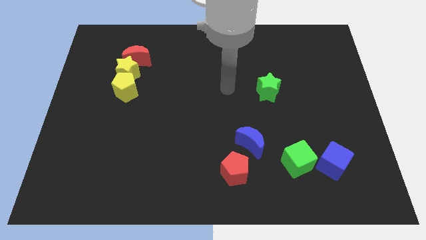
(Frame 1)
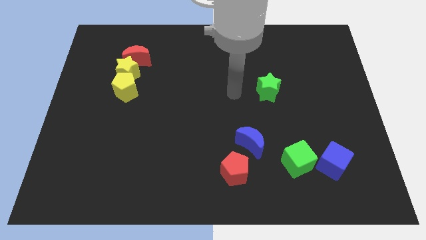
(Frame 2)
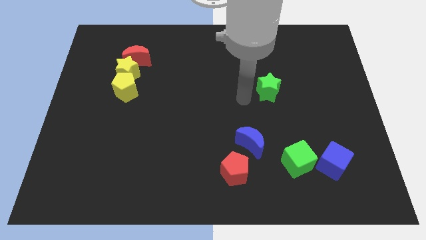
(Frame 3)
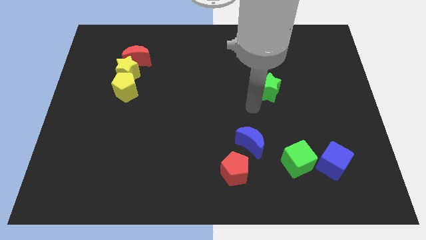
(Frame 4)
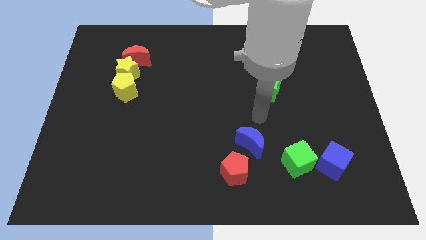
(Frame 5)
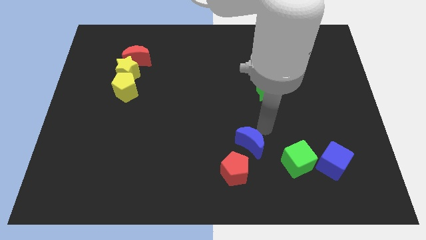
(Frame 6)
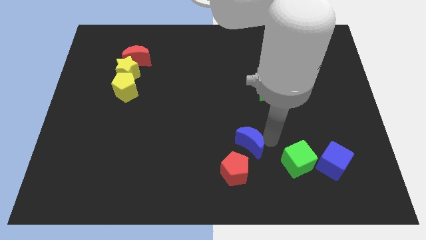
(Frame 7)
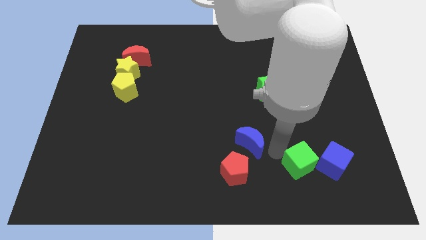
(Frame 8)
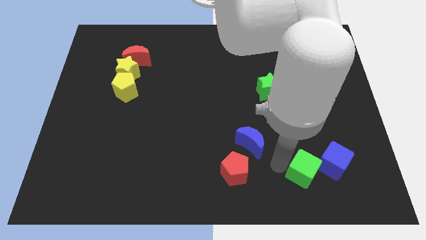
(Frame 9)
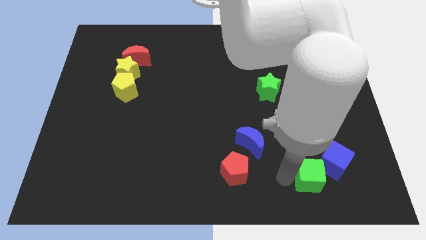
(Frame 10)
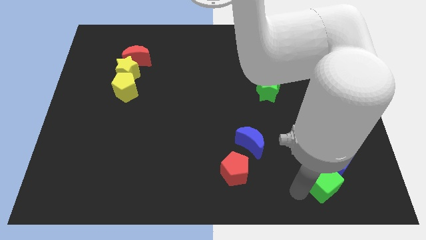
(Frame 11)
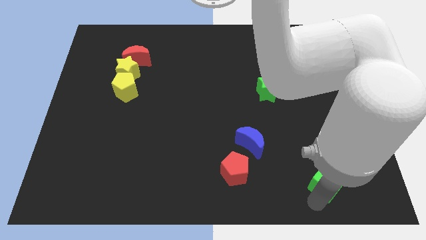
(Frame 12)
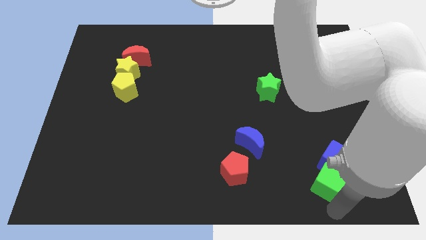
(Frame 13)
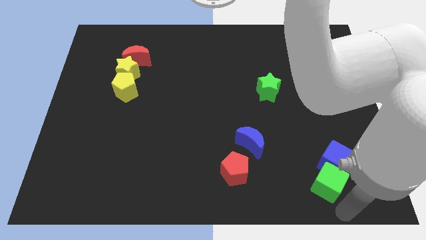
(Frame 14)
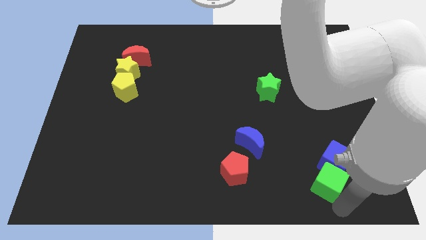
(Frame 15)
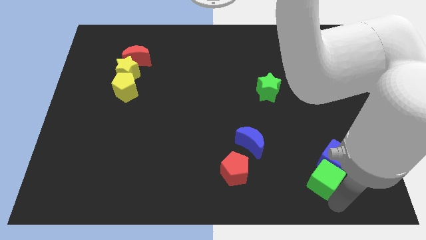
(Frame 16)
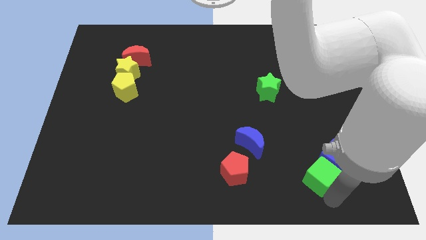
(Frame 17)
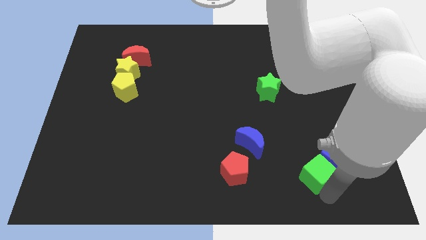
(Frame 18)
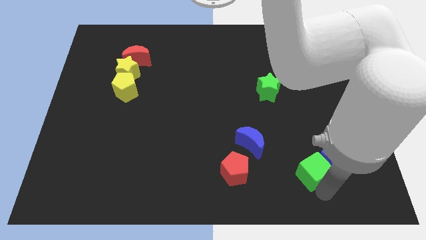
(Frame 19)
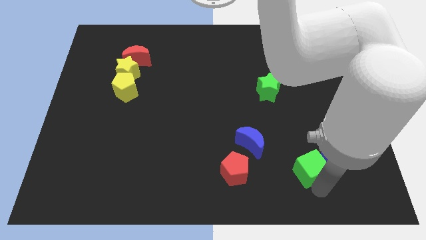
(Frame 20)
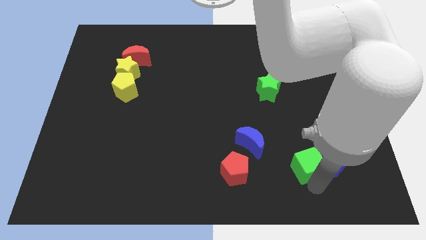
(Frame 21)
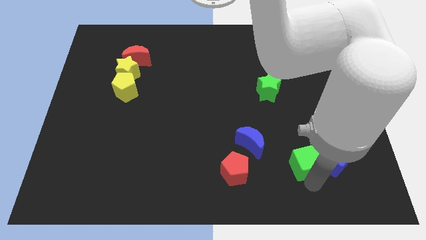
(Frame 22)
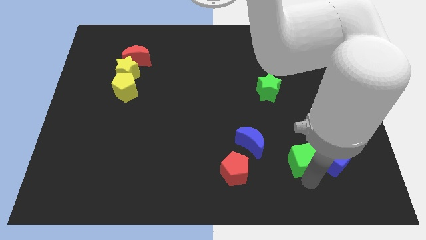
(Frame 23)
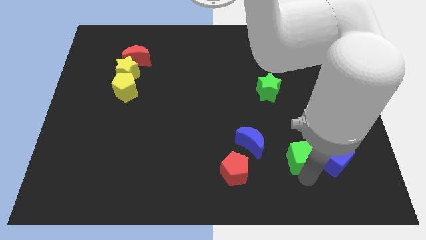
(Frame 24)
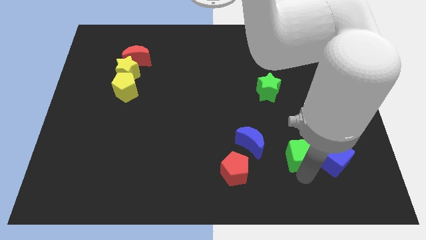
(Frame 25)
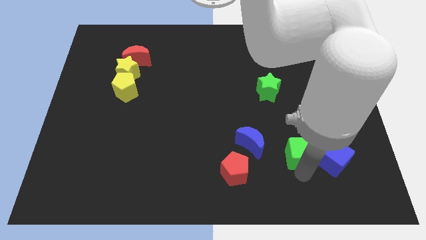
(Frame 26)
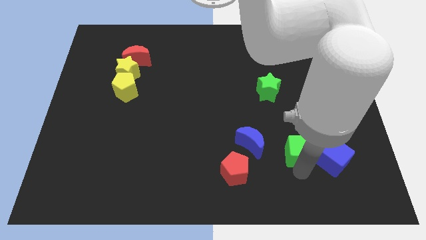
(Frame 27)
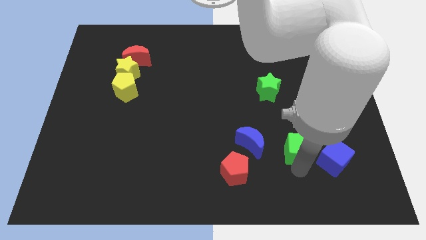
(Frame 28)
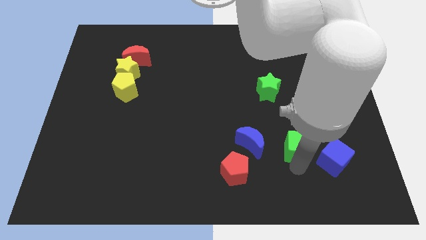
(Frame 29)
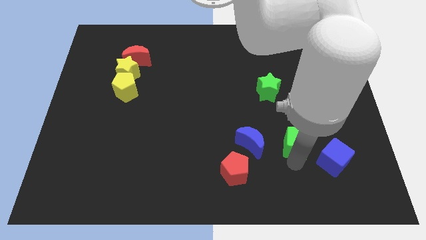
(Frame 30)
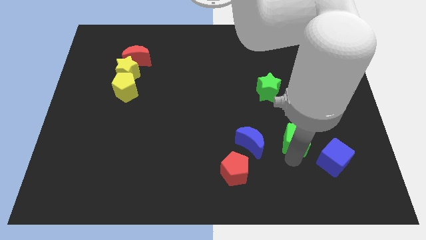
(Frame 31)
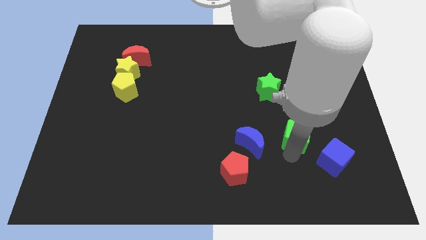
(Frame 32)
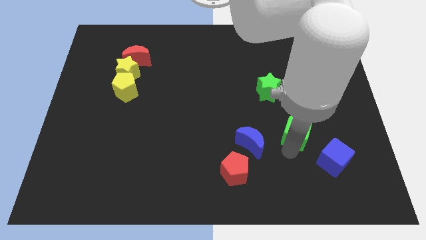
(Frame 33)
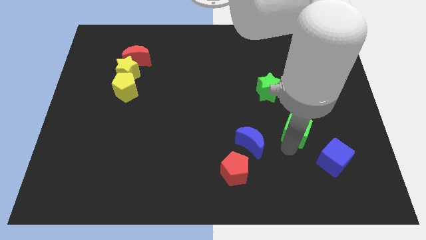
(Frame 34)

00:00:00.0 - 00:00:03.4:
slightly slide the green cube up

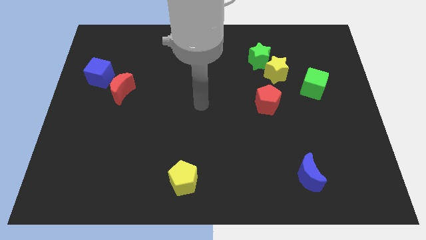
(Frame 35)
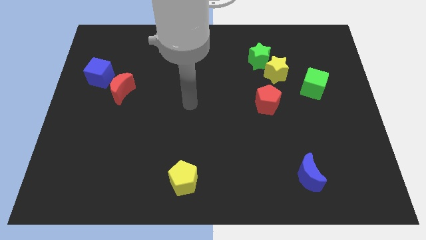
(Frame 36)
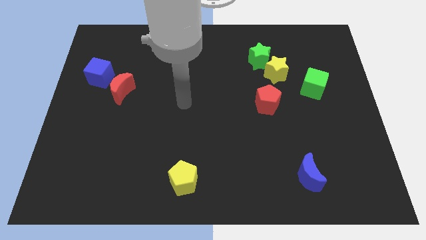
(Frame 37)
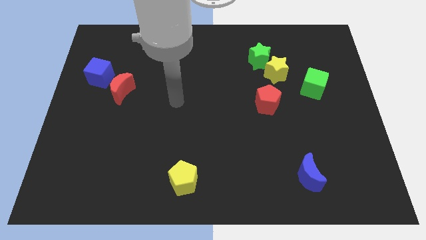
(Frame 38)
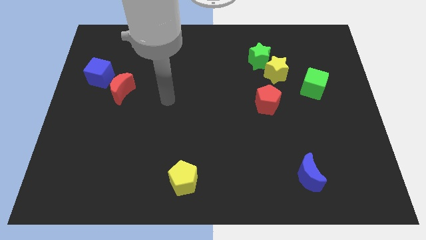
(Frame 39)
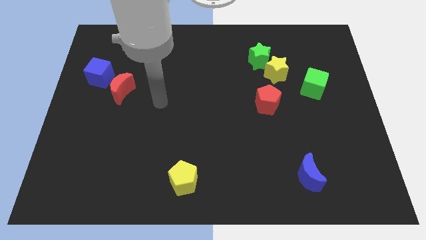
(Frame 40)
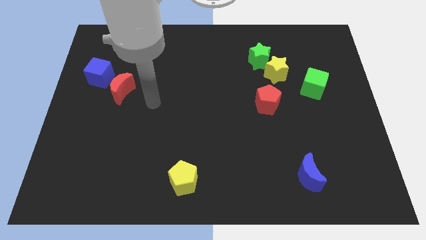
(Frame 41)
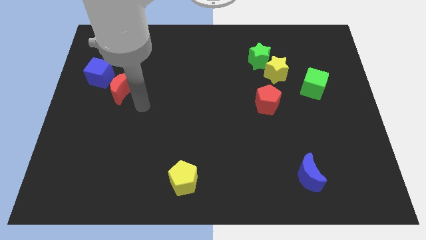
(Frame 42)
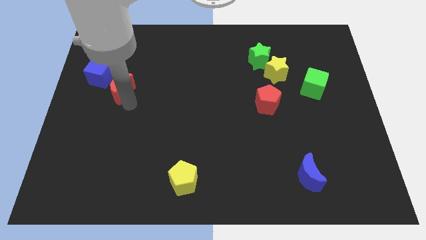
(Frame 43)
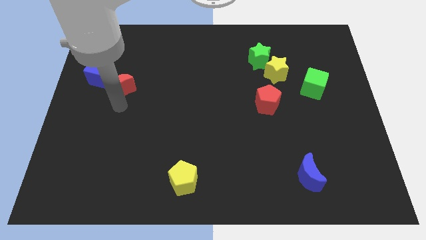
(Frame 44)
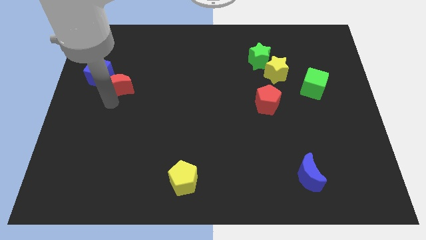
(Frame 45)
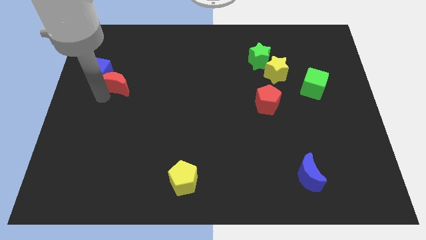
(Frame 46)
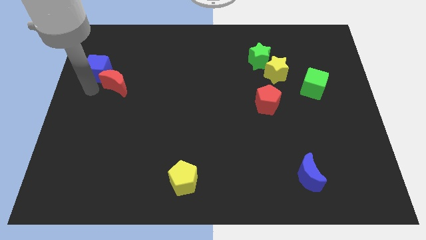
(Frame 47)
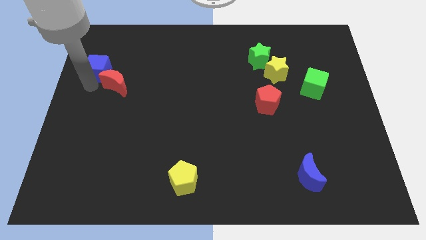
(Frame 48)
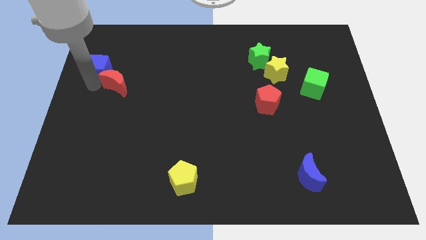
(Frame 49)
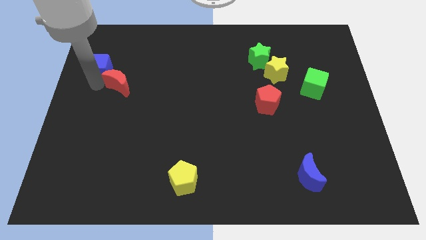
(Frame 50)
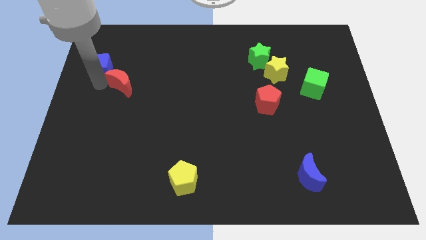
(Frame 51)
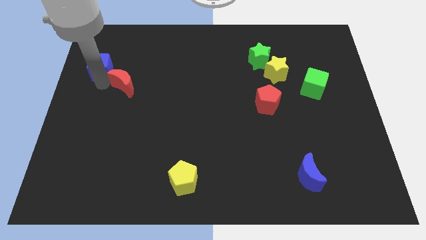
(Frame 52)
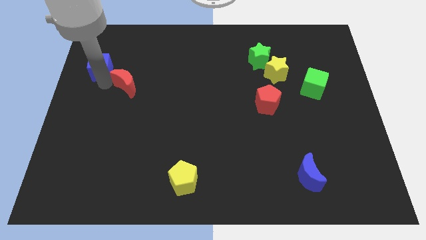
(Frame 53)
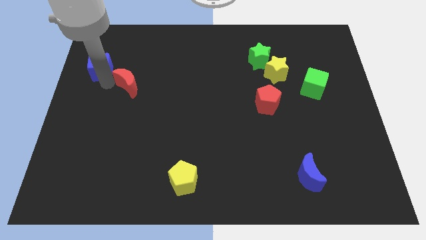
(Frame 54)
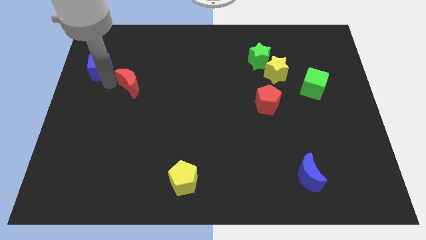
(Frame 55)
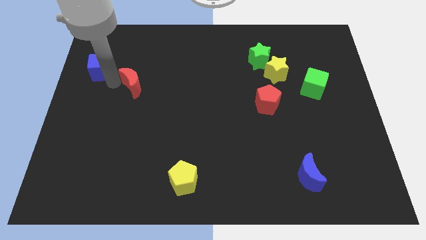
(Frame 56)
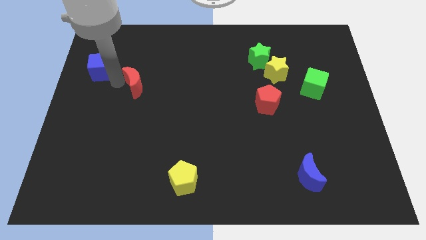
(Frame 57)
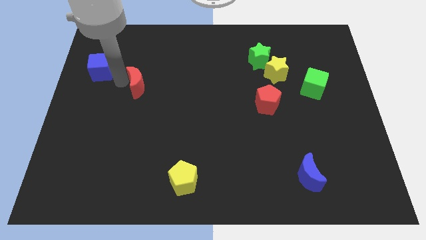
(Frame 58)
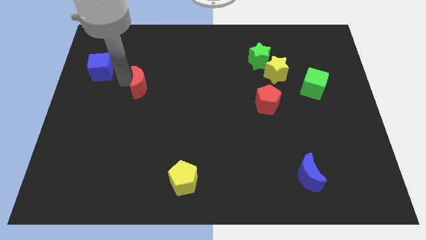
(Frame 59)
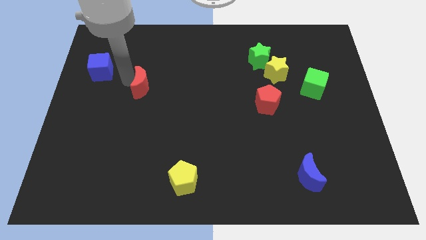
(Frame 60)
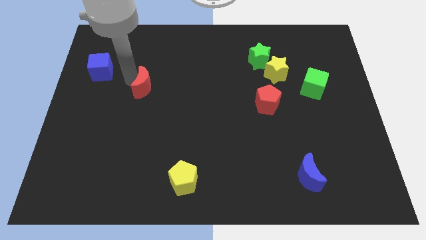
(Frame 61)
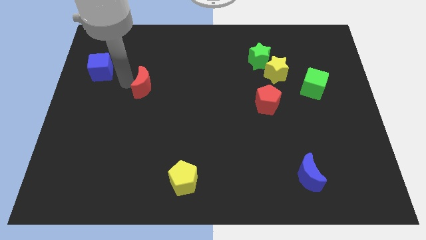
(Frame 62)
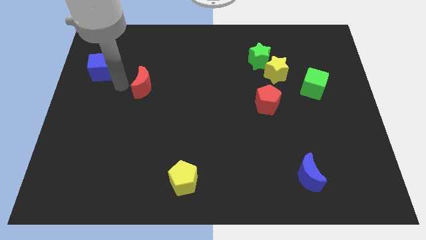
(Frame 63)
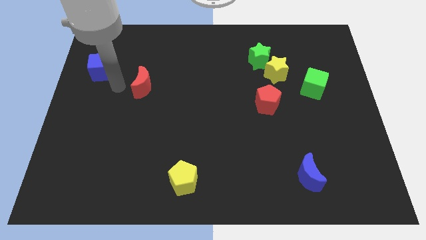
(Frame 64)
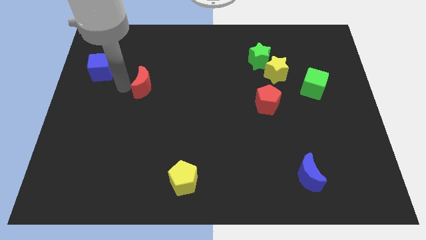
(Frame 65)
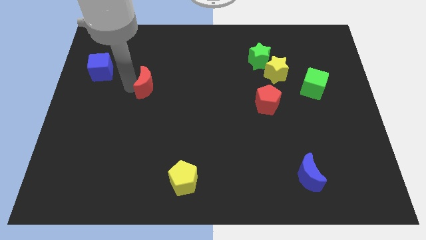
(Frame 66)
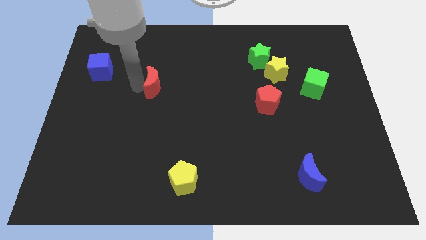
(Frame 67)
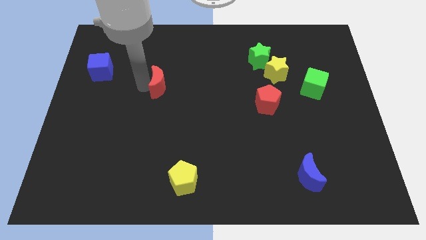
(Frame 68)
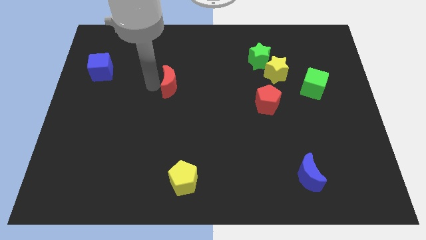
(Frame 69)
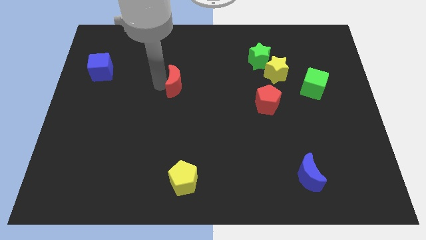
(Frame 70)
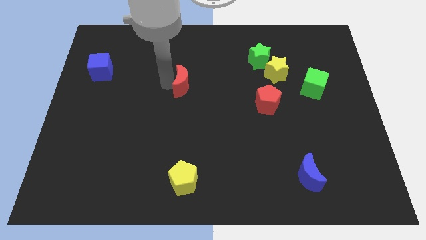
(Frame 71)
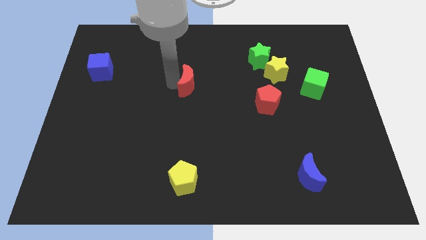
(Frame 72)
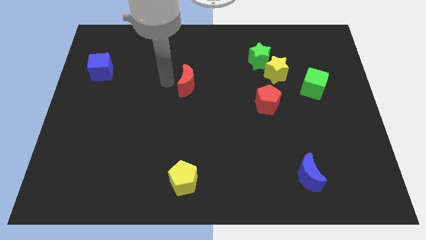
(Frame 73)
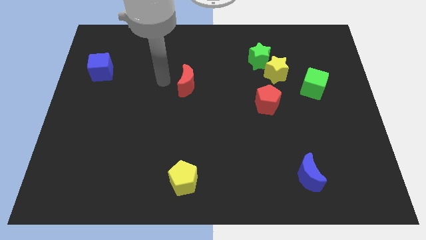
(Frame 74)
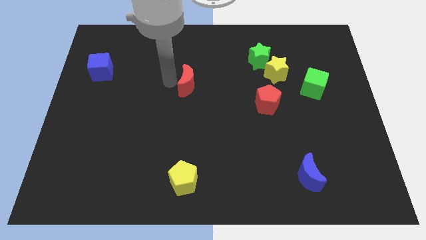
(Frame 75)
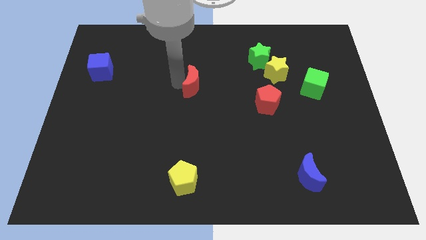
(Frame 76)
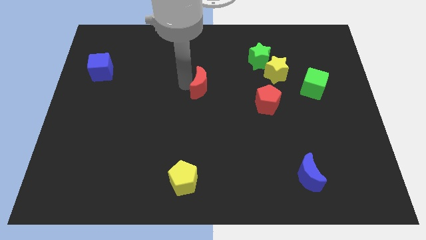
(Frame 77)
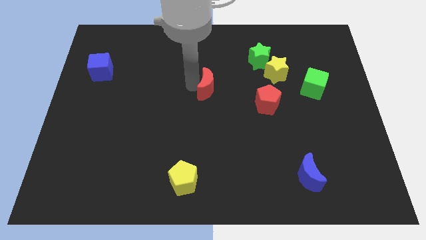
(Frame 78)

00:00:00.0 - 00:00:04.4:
move the red moon to the right

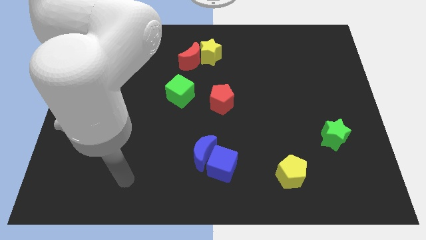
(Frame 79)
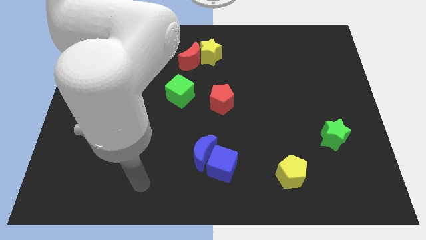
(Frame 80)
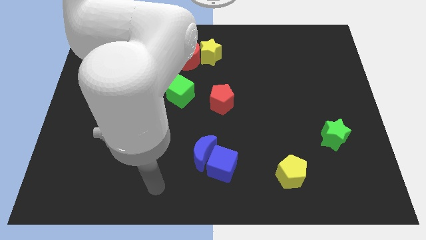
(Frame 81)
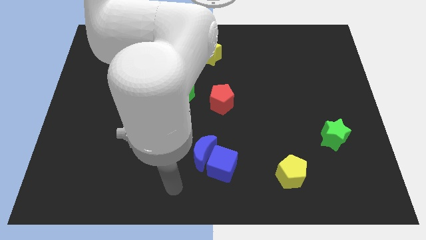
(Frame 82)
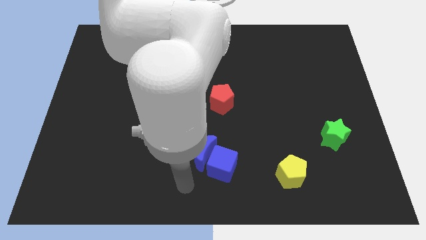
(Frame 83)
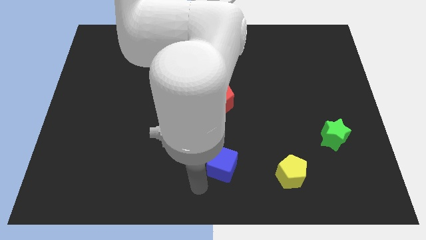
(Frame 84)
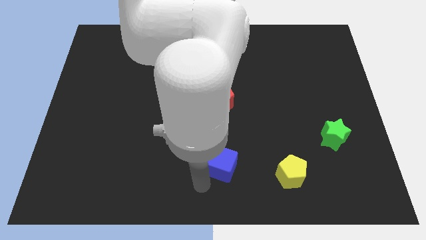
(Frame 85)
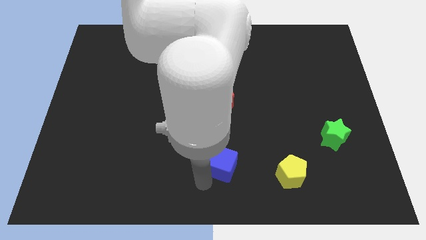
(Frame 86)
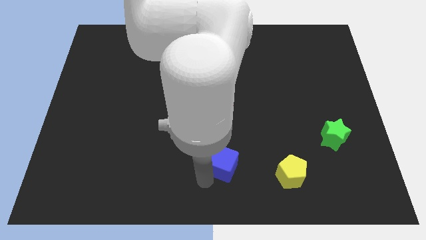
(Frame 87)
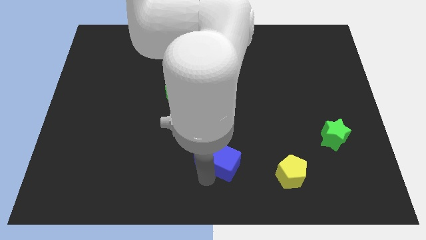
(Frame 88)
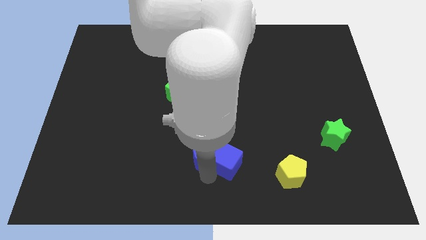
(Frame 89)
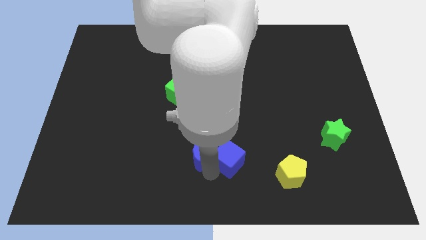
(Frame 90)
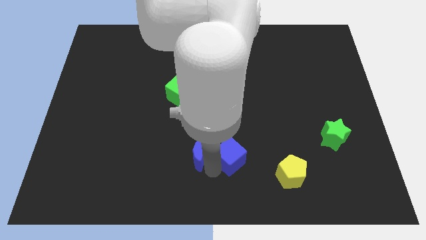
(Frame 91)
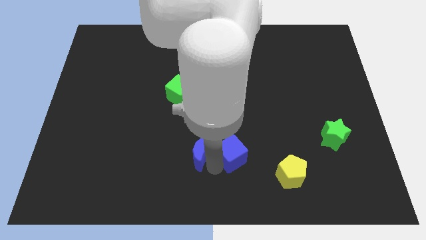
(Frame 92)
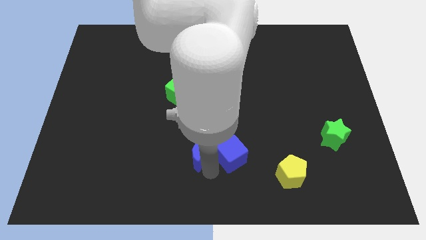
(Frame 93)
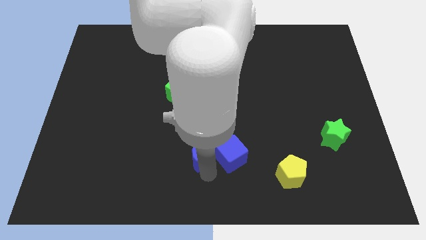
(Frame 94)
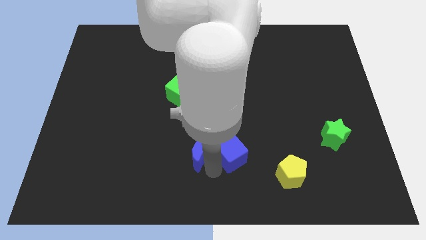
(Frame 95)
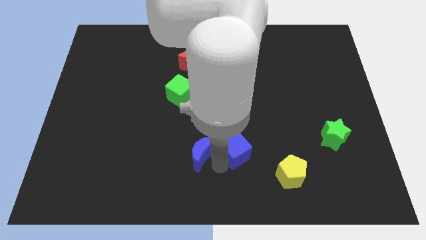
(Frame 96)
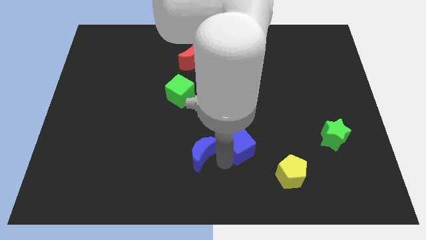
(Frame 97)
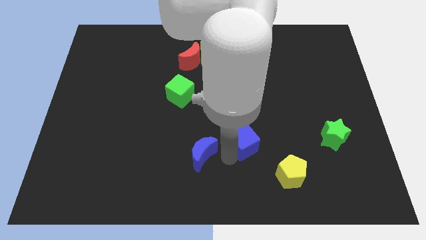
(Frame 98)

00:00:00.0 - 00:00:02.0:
push the blue cube diagonally up and to the right a bit
